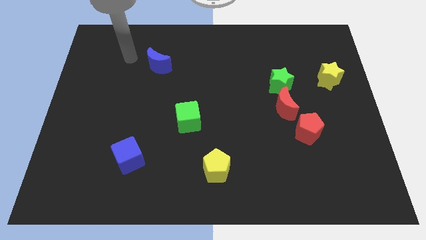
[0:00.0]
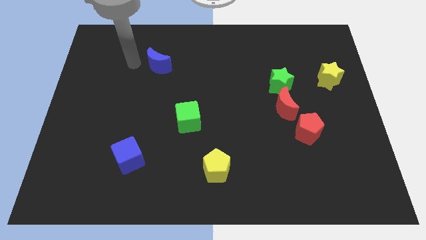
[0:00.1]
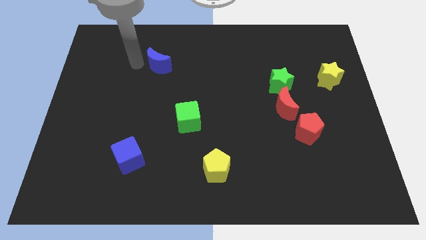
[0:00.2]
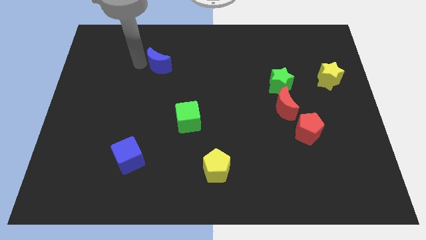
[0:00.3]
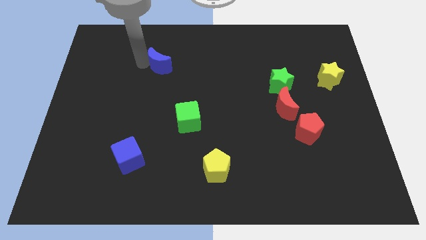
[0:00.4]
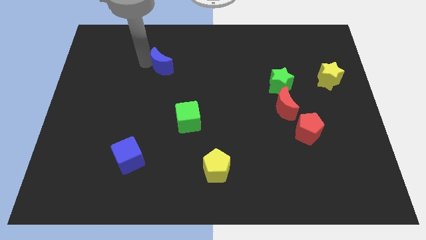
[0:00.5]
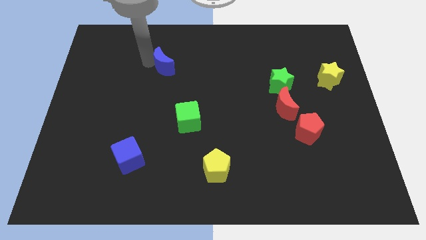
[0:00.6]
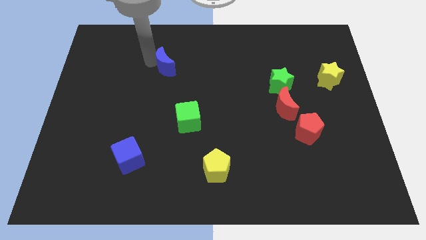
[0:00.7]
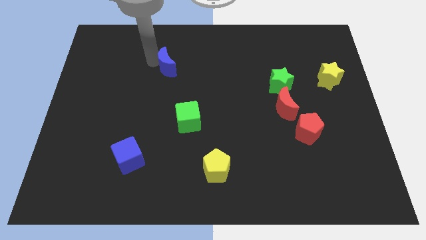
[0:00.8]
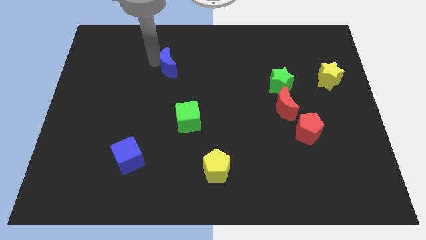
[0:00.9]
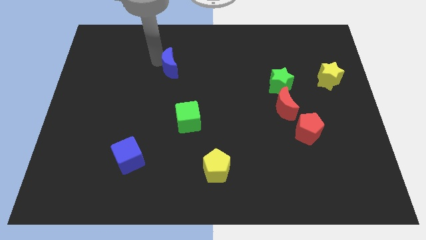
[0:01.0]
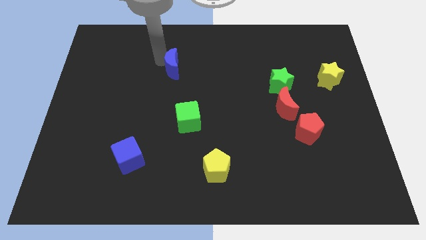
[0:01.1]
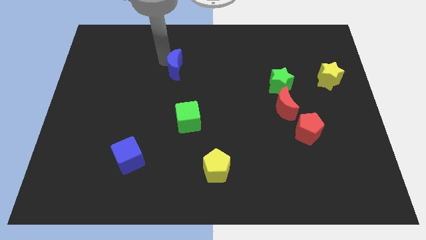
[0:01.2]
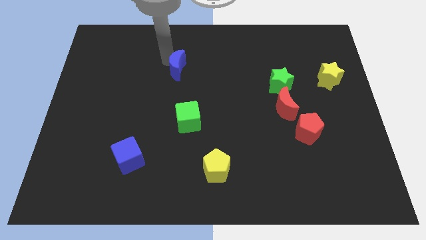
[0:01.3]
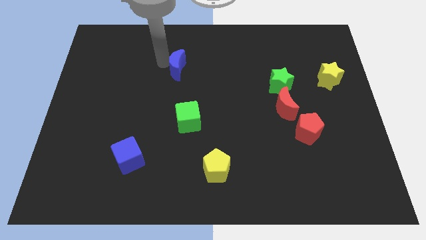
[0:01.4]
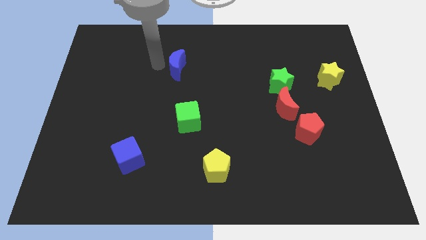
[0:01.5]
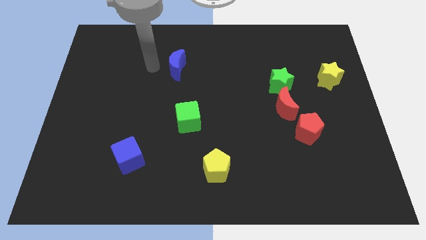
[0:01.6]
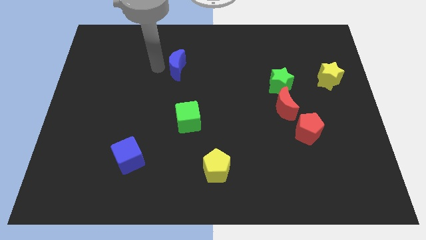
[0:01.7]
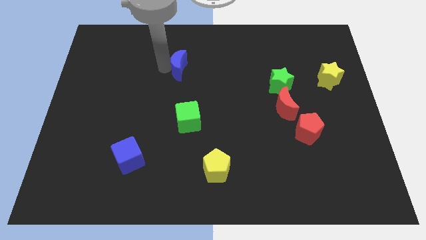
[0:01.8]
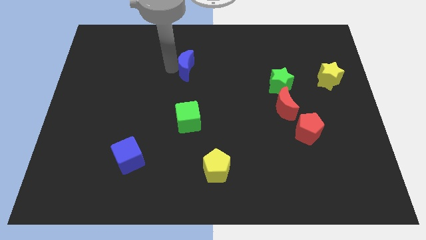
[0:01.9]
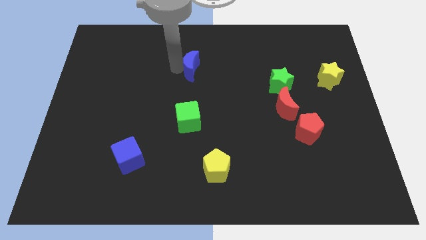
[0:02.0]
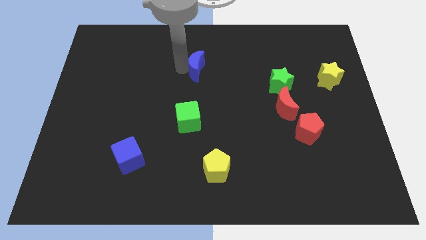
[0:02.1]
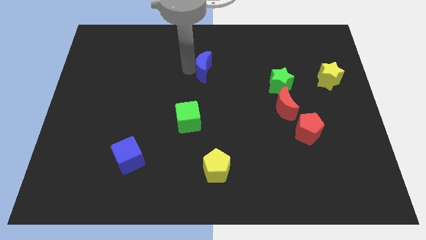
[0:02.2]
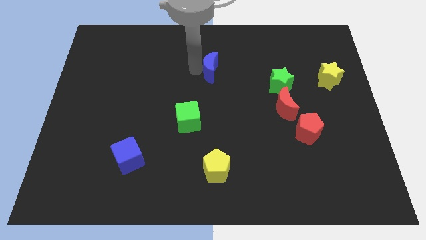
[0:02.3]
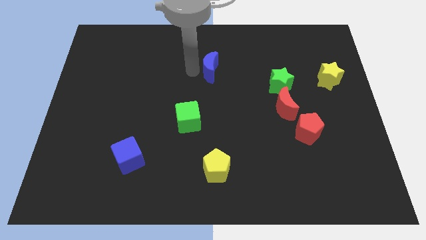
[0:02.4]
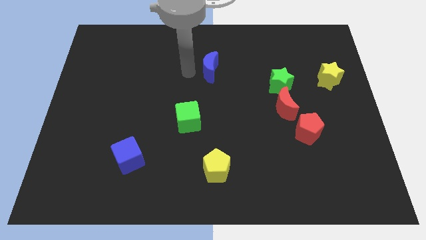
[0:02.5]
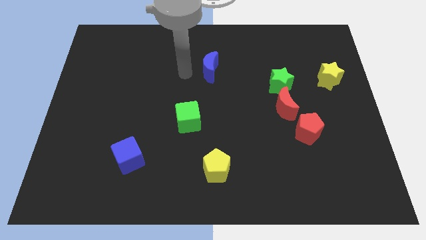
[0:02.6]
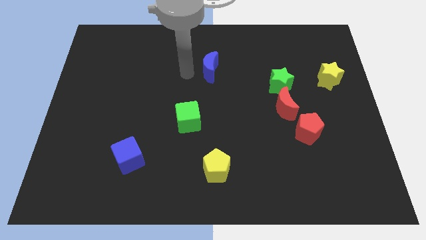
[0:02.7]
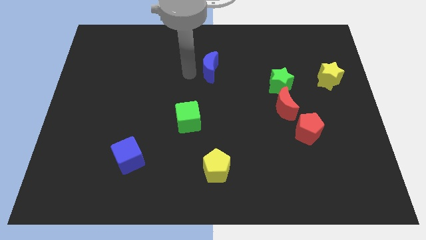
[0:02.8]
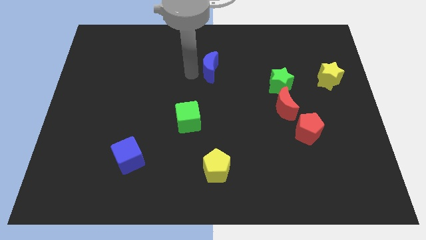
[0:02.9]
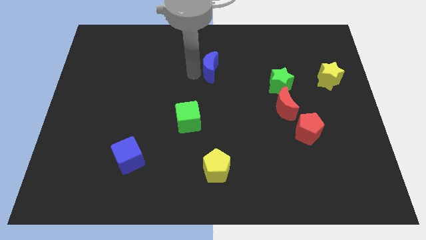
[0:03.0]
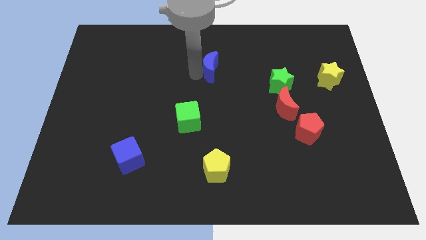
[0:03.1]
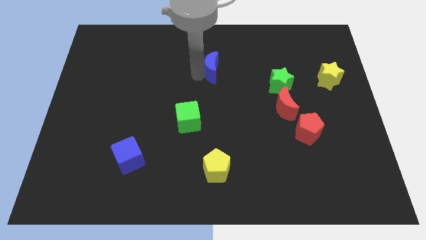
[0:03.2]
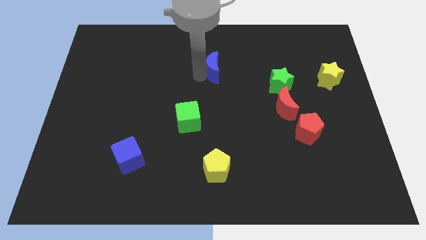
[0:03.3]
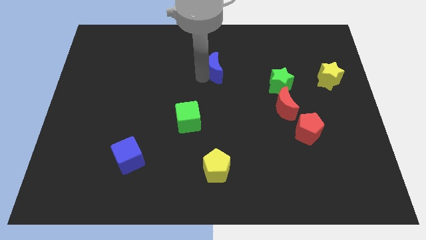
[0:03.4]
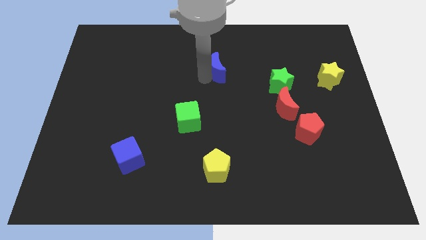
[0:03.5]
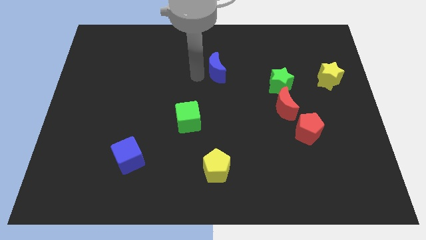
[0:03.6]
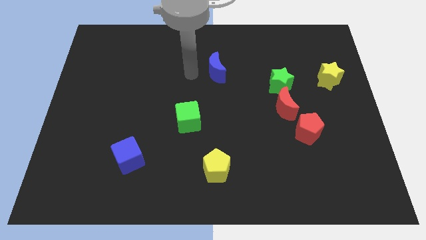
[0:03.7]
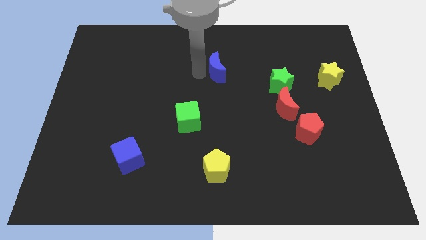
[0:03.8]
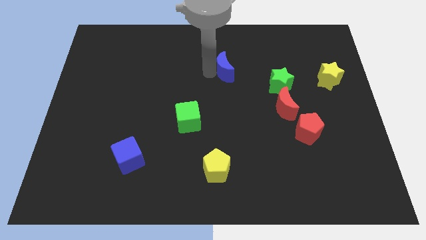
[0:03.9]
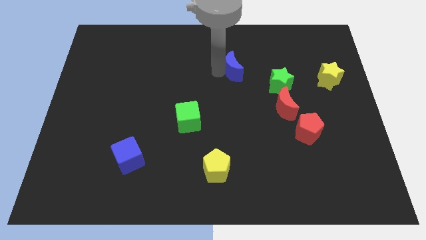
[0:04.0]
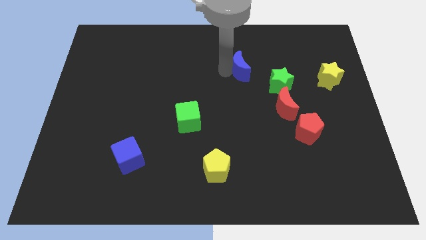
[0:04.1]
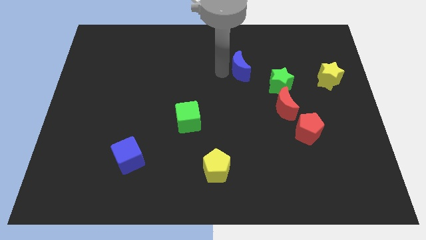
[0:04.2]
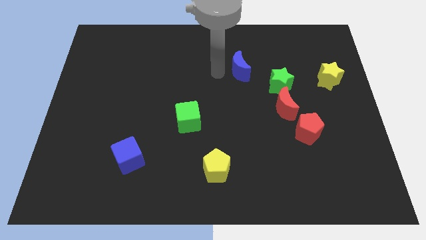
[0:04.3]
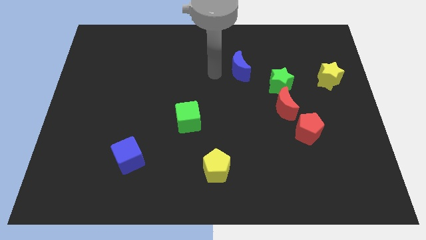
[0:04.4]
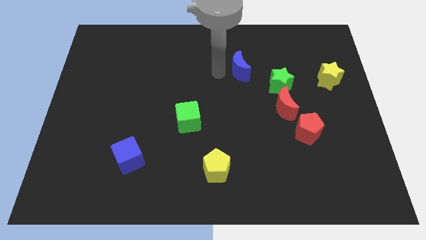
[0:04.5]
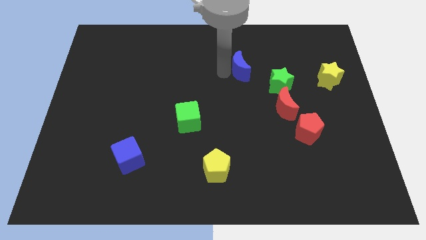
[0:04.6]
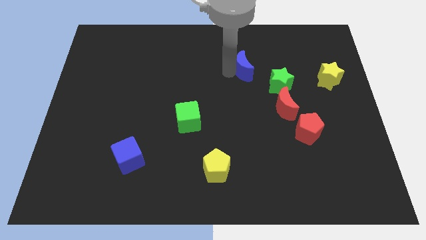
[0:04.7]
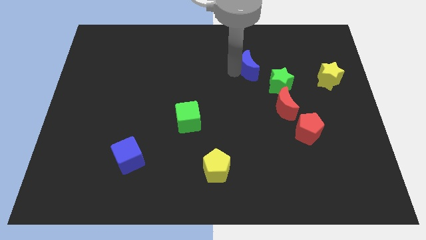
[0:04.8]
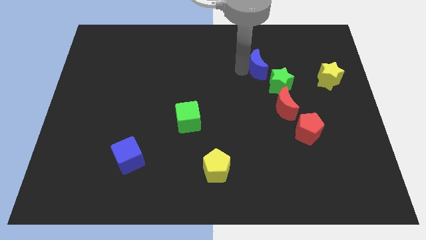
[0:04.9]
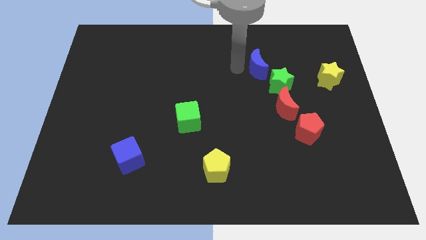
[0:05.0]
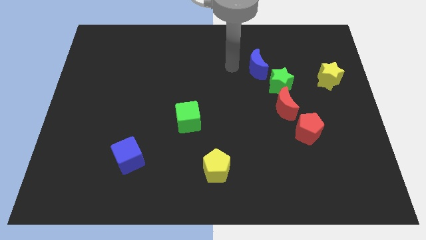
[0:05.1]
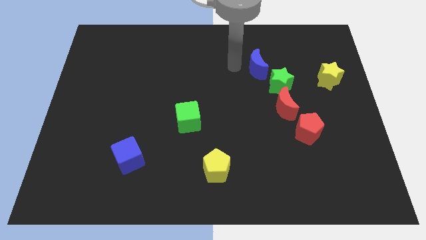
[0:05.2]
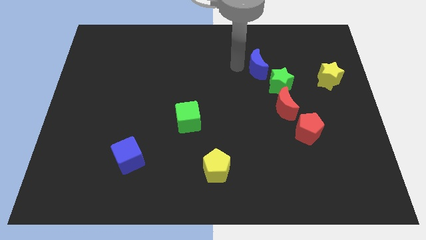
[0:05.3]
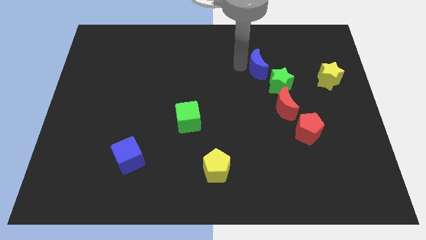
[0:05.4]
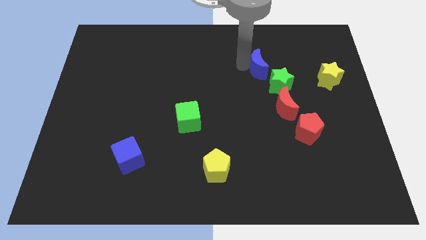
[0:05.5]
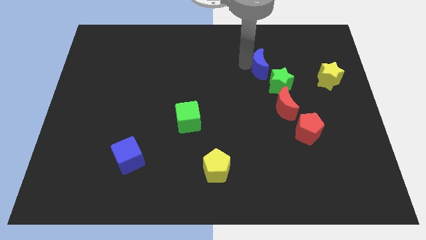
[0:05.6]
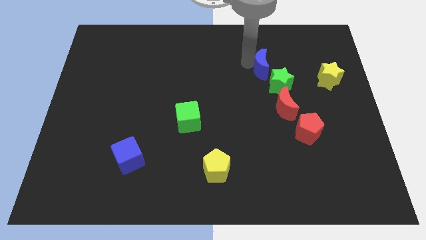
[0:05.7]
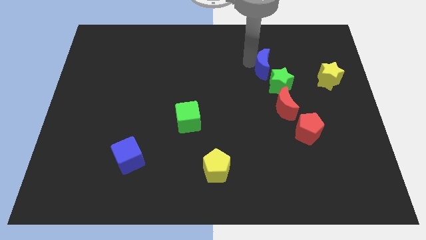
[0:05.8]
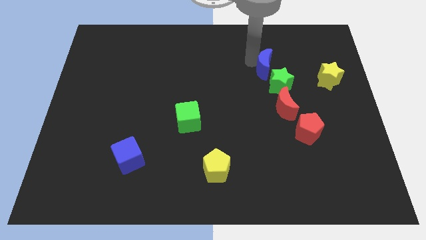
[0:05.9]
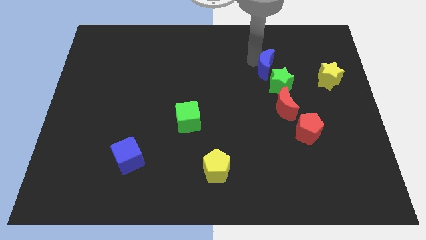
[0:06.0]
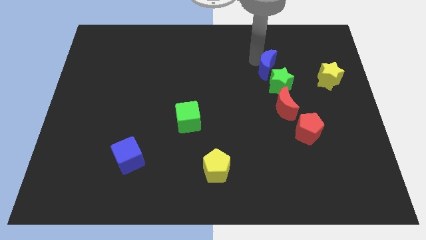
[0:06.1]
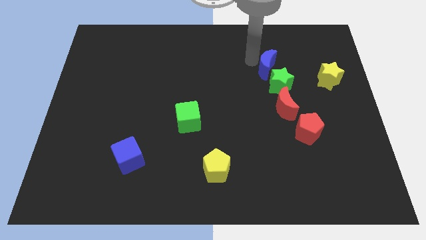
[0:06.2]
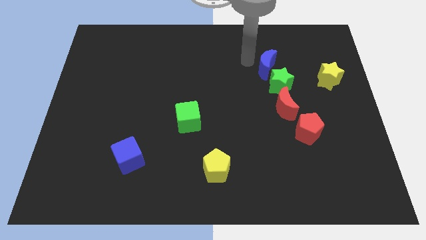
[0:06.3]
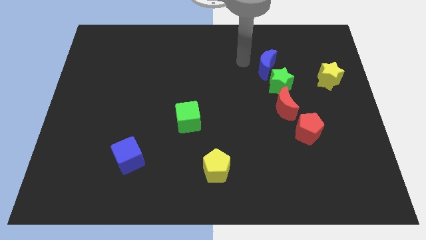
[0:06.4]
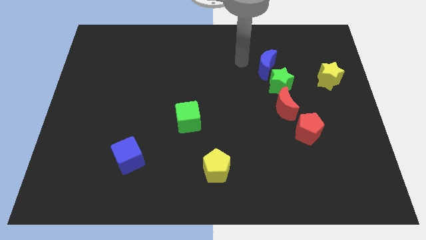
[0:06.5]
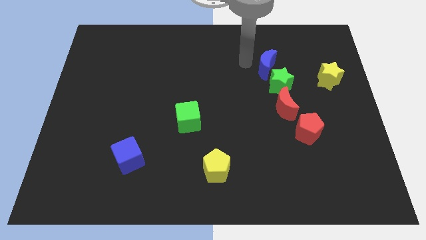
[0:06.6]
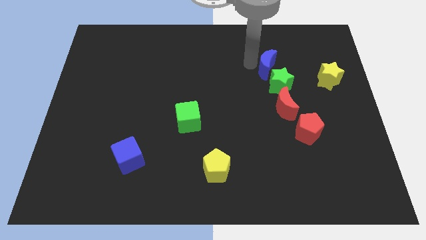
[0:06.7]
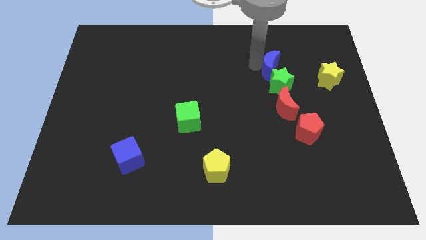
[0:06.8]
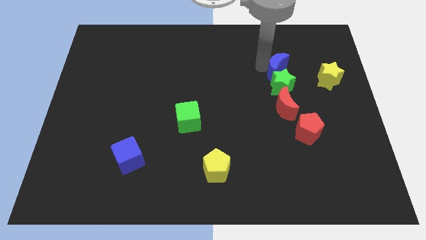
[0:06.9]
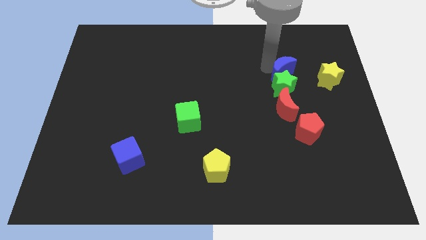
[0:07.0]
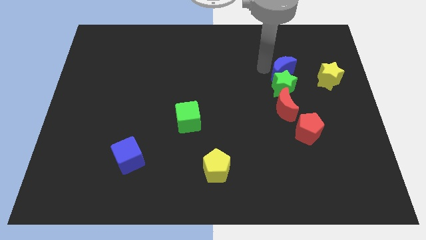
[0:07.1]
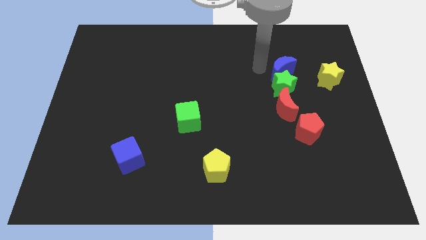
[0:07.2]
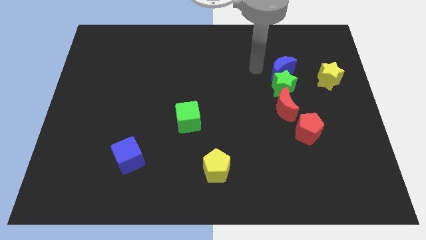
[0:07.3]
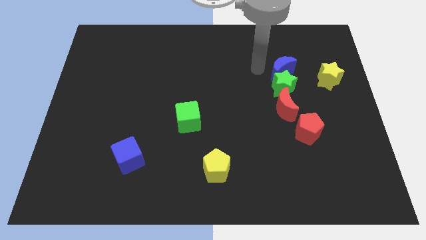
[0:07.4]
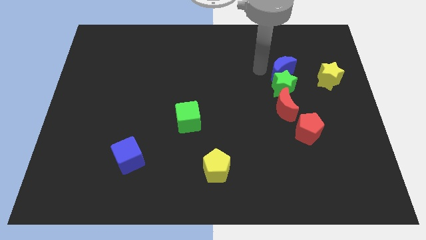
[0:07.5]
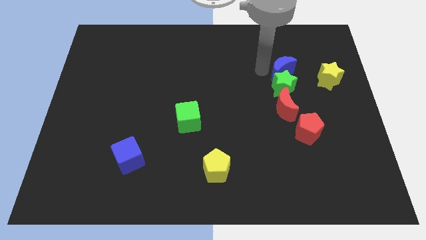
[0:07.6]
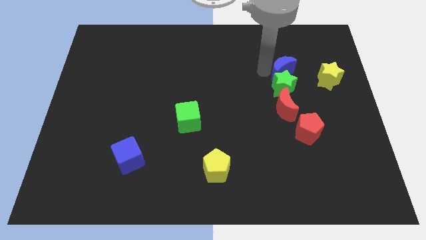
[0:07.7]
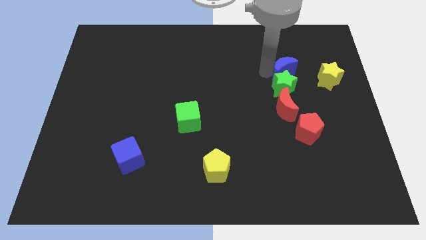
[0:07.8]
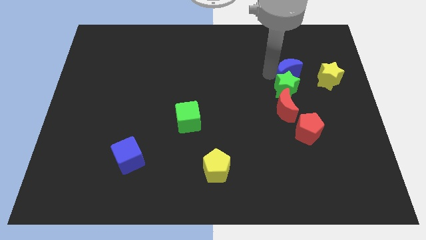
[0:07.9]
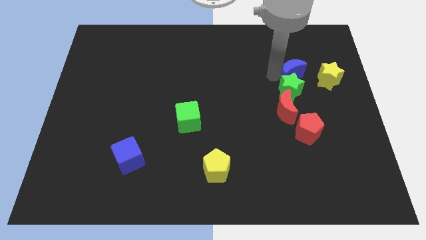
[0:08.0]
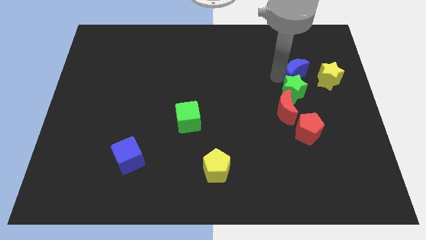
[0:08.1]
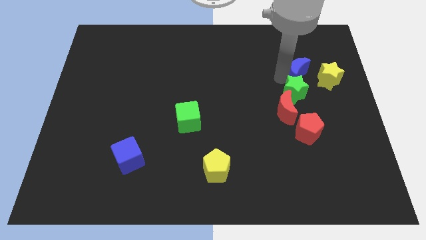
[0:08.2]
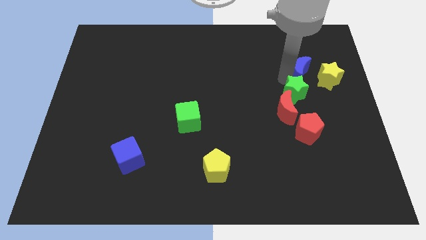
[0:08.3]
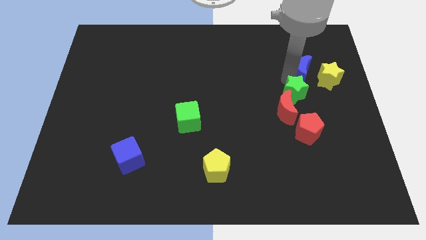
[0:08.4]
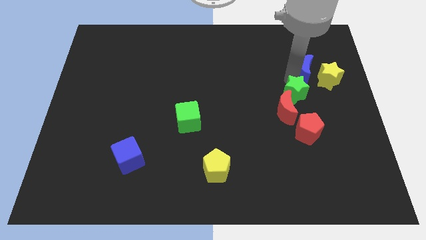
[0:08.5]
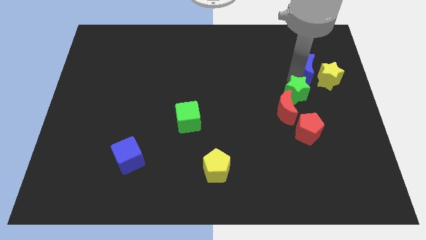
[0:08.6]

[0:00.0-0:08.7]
move the blue moon close to the yellow star

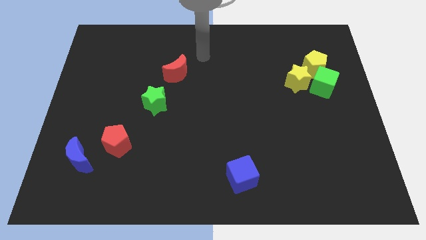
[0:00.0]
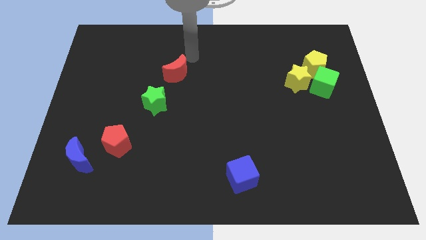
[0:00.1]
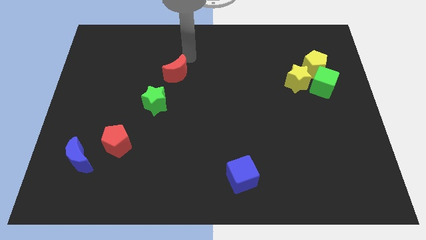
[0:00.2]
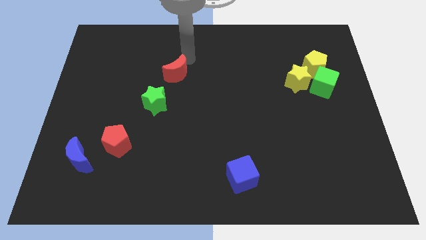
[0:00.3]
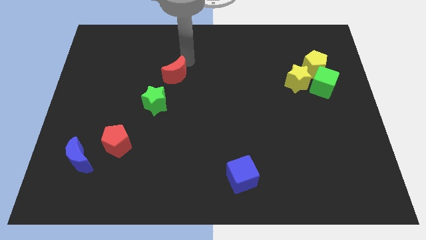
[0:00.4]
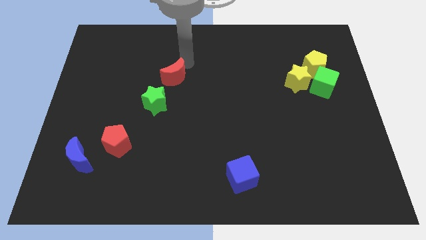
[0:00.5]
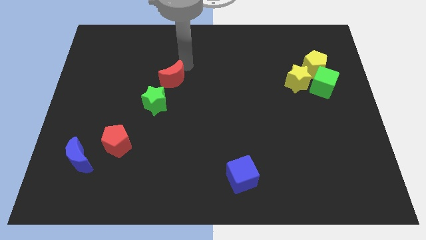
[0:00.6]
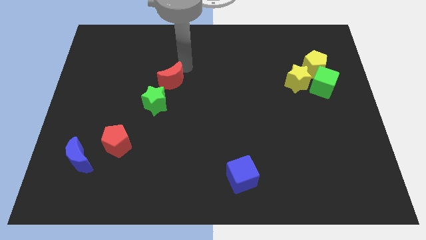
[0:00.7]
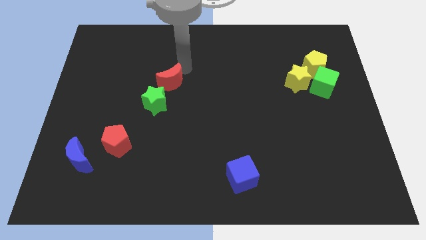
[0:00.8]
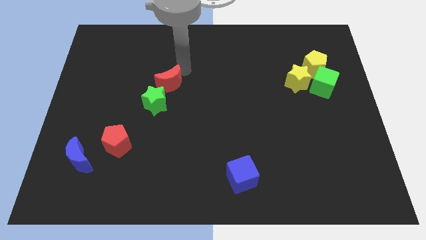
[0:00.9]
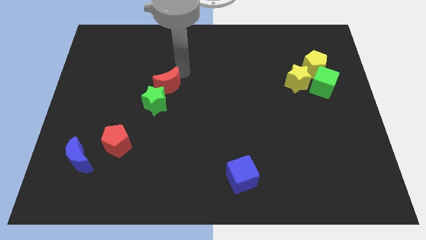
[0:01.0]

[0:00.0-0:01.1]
put the red moon towards the green star
